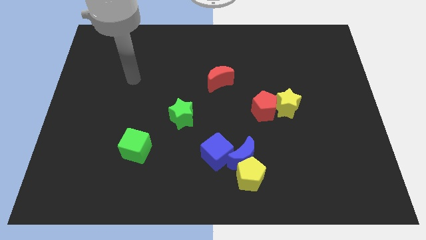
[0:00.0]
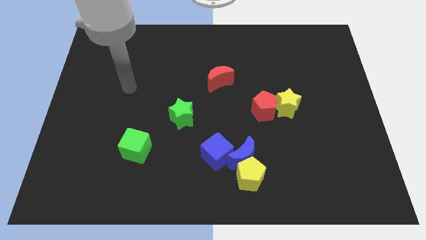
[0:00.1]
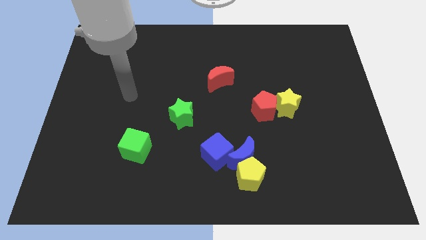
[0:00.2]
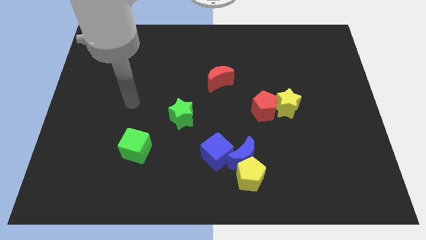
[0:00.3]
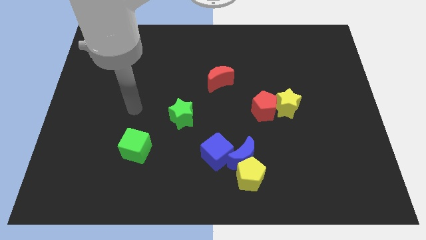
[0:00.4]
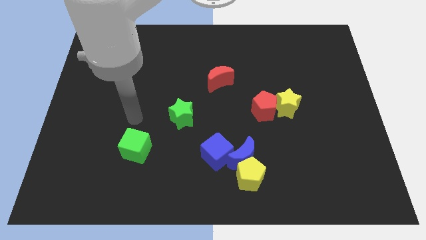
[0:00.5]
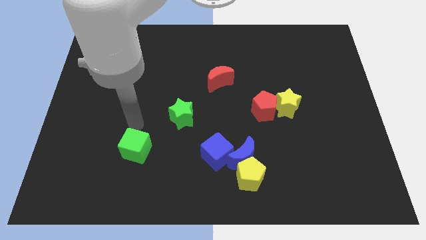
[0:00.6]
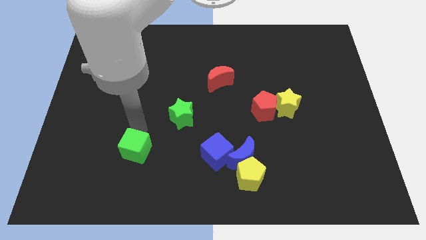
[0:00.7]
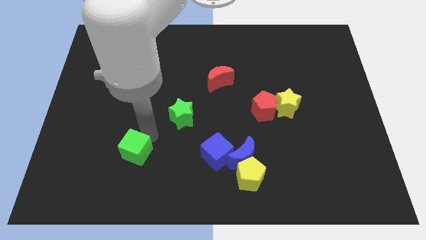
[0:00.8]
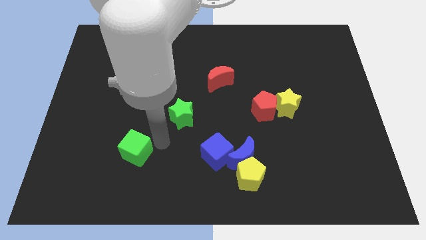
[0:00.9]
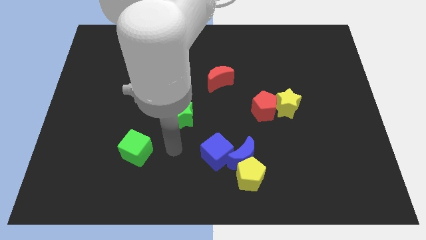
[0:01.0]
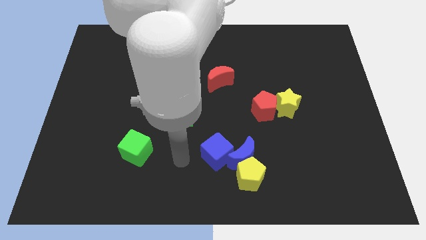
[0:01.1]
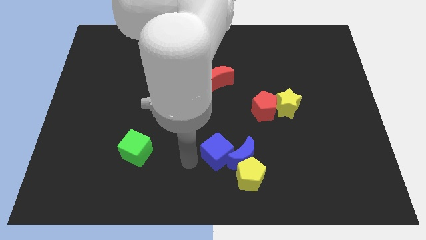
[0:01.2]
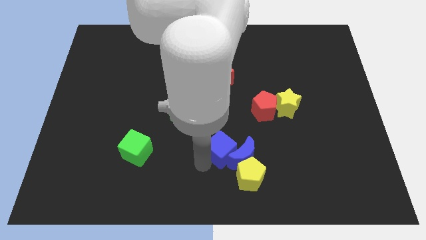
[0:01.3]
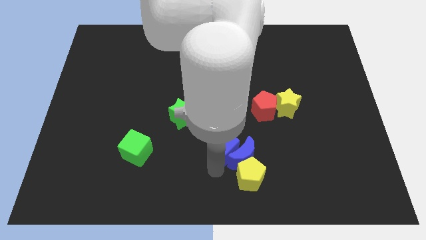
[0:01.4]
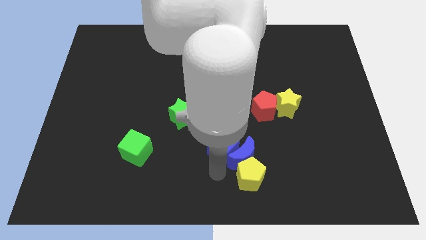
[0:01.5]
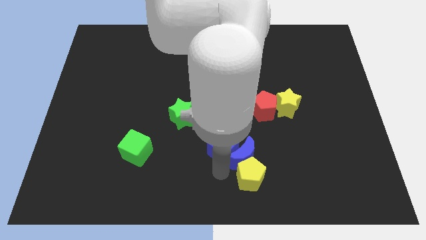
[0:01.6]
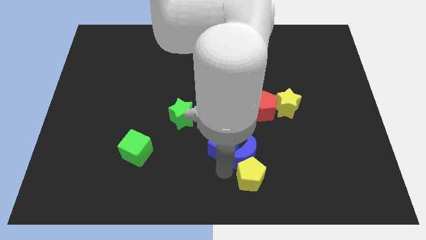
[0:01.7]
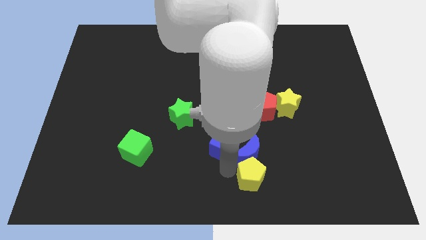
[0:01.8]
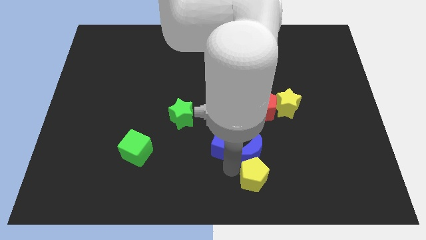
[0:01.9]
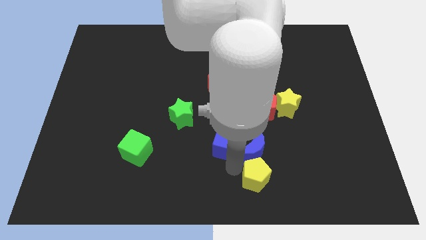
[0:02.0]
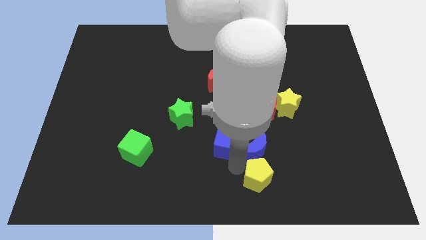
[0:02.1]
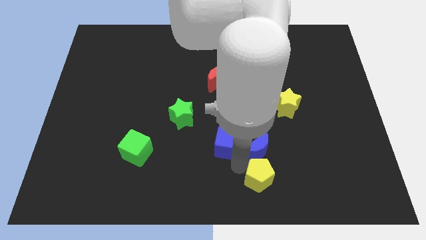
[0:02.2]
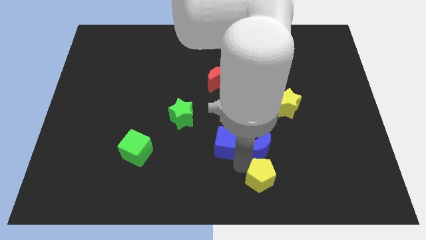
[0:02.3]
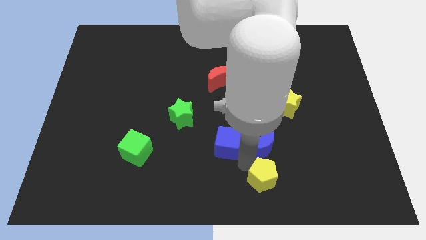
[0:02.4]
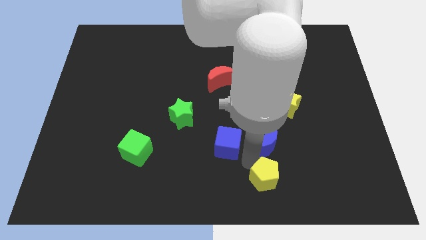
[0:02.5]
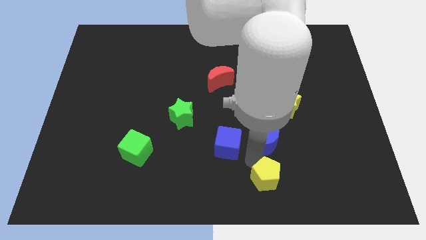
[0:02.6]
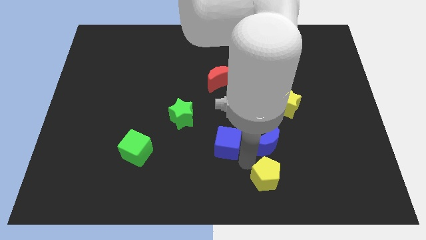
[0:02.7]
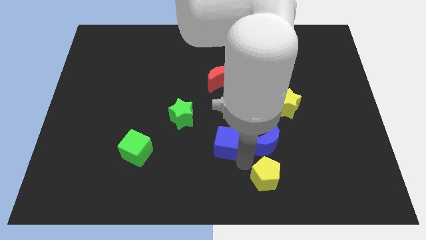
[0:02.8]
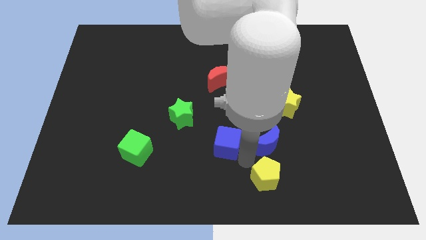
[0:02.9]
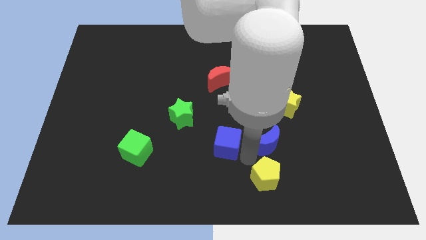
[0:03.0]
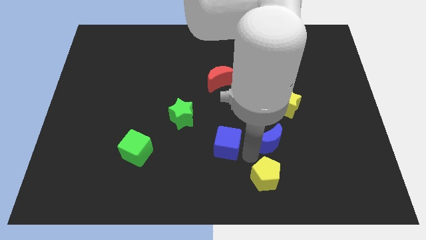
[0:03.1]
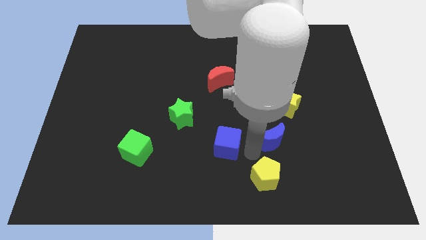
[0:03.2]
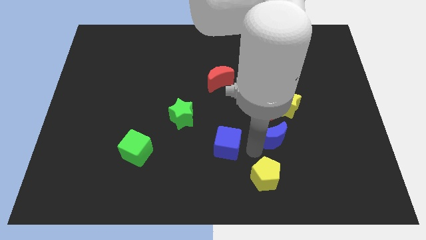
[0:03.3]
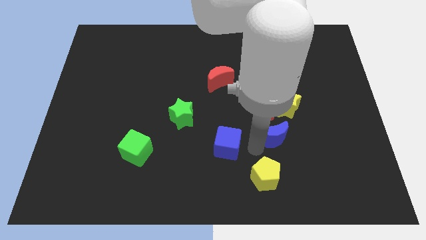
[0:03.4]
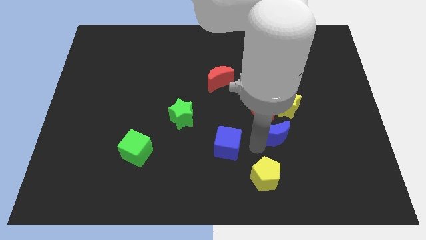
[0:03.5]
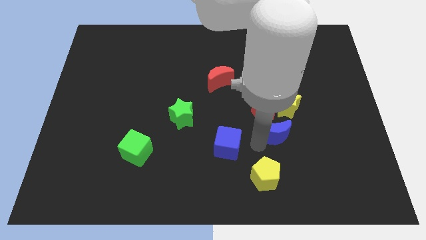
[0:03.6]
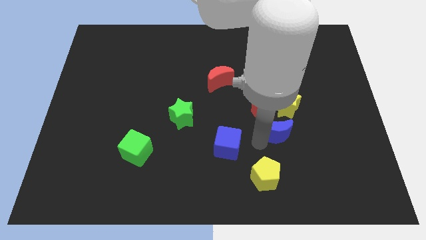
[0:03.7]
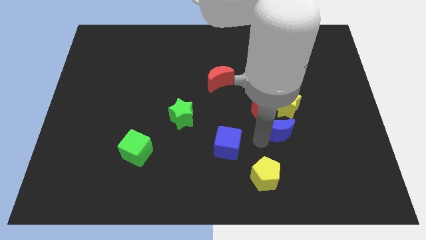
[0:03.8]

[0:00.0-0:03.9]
pull the blue moon apart from the yellow pentagon and blue cube

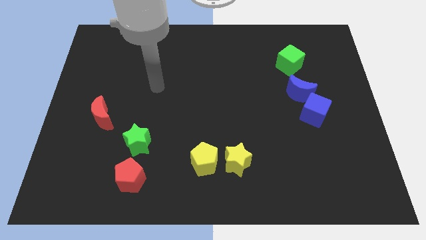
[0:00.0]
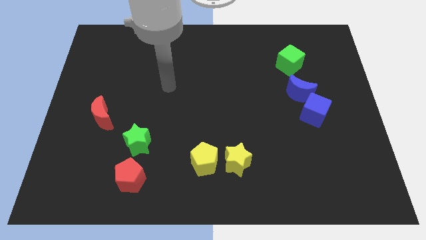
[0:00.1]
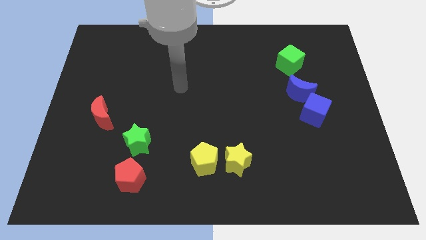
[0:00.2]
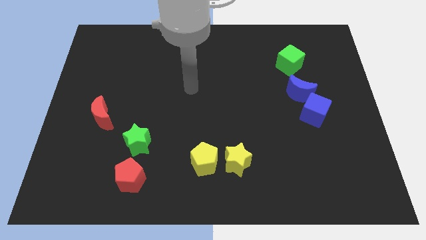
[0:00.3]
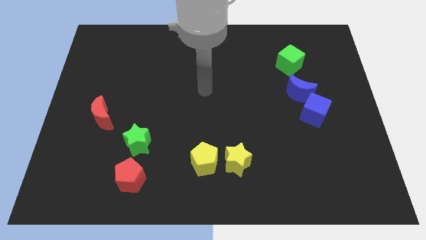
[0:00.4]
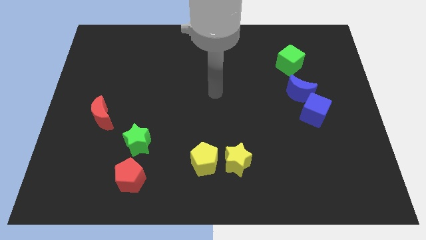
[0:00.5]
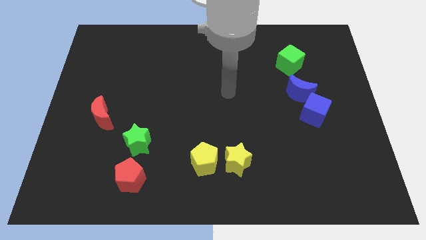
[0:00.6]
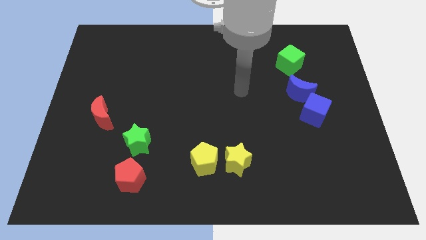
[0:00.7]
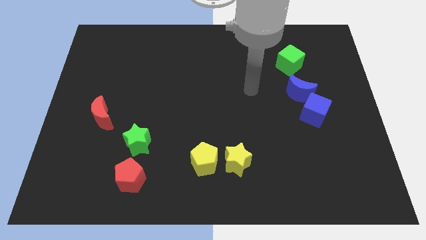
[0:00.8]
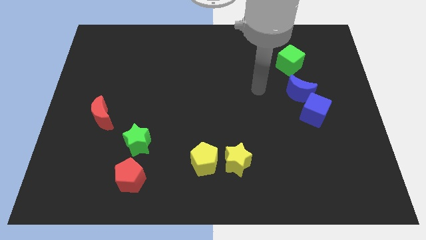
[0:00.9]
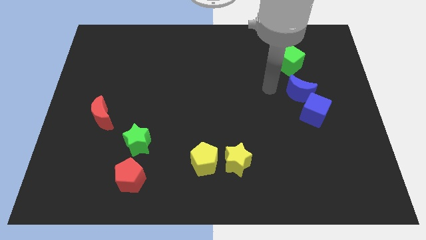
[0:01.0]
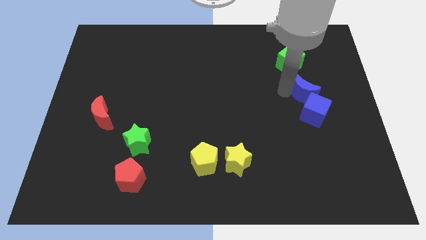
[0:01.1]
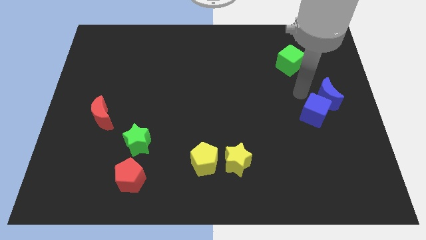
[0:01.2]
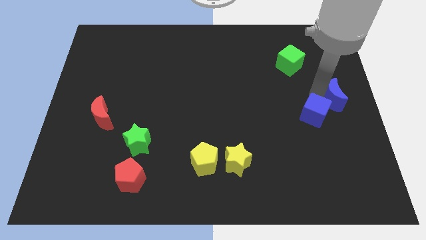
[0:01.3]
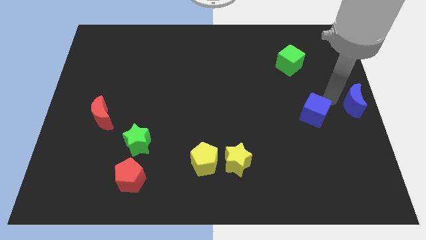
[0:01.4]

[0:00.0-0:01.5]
move the blue cube away from the blue moon

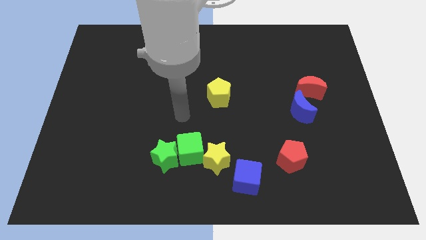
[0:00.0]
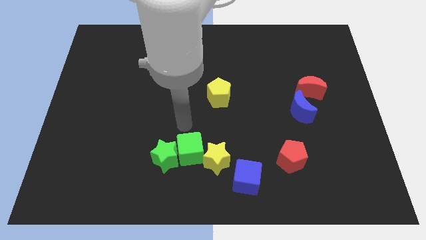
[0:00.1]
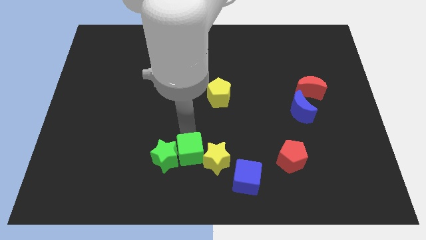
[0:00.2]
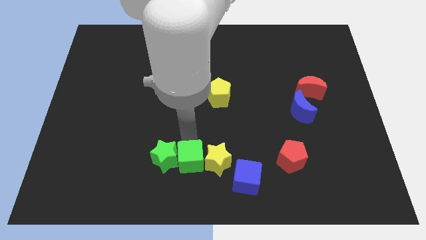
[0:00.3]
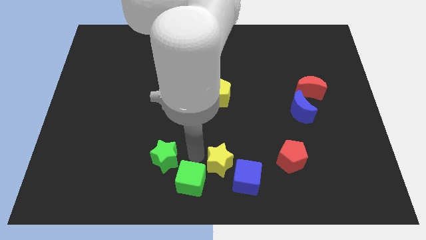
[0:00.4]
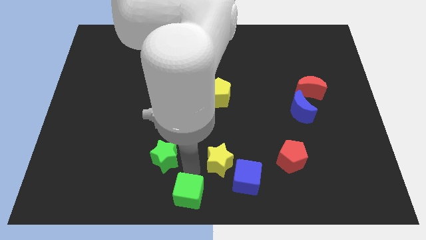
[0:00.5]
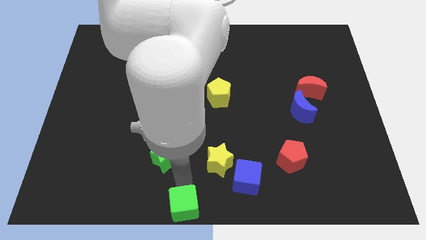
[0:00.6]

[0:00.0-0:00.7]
pull the green star apart from the green cube

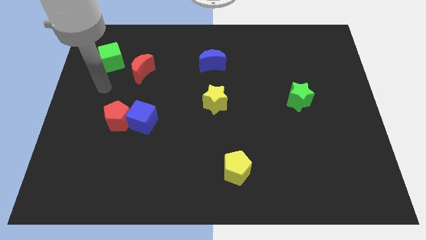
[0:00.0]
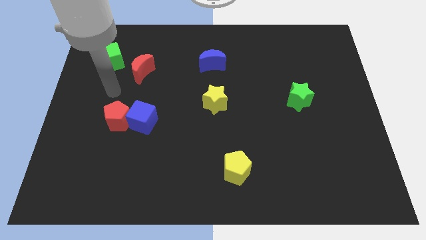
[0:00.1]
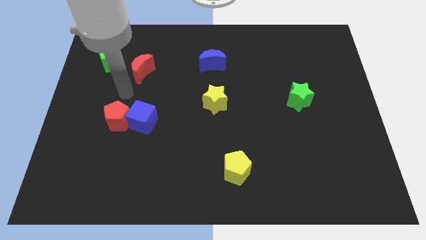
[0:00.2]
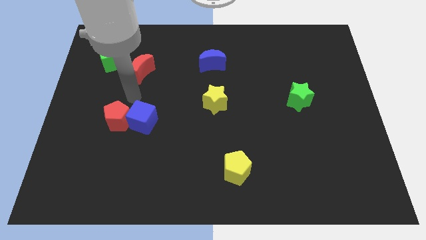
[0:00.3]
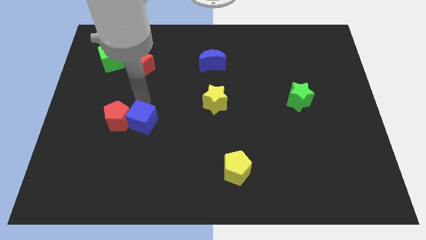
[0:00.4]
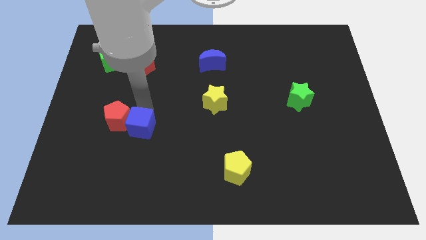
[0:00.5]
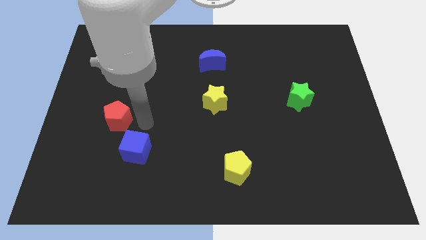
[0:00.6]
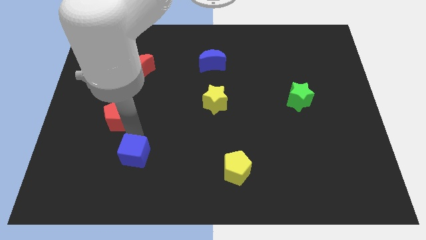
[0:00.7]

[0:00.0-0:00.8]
separate the red pentagon from the blue cube

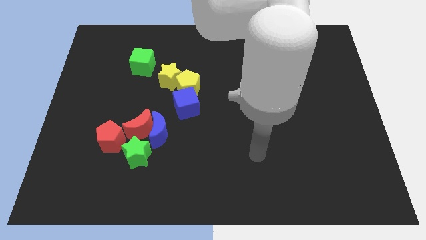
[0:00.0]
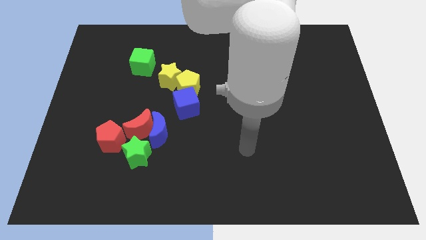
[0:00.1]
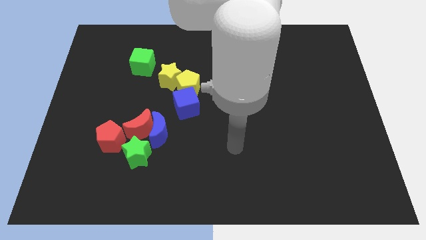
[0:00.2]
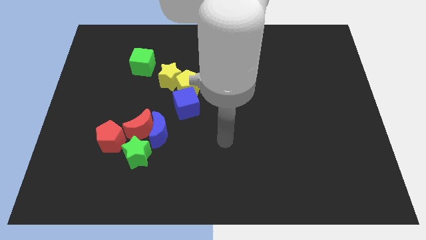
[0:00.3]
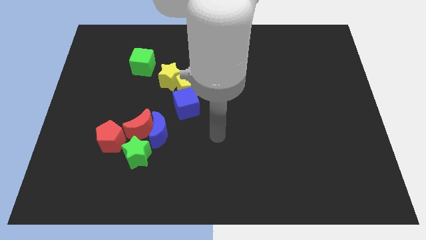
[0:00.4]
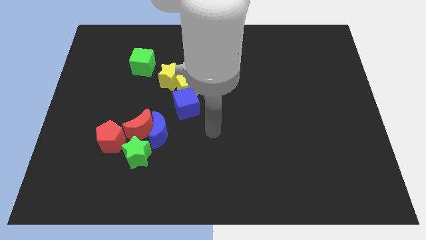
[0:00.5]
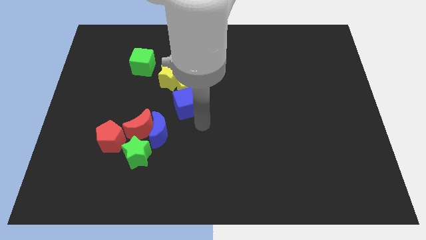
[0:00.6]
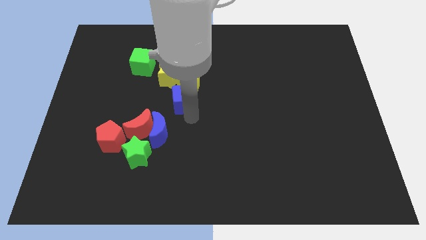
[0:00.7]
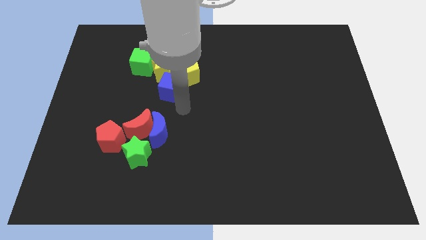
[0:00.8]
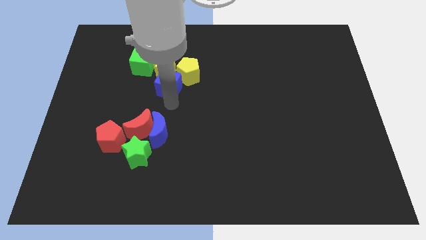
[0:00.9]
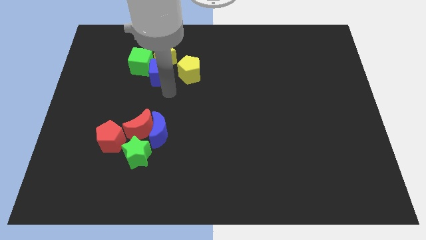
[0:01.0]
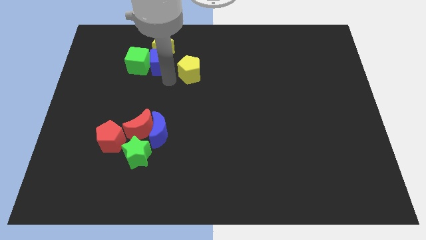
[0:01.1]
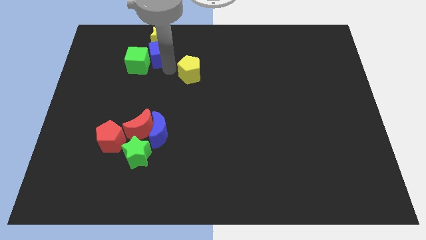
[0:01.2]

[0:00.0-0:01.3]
move the yellow pentagon away from the yellow star and blue cube

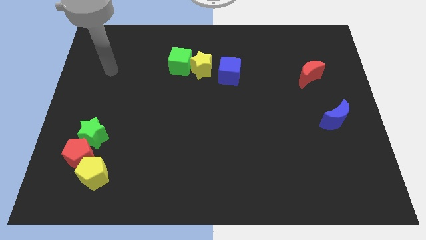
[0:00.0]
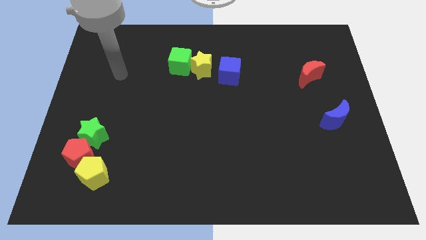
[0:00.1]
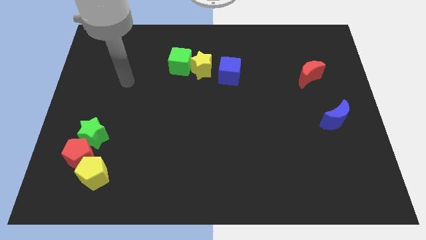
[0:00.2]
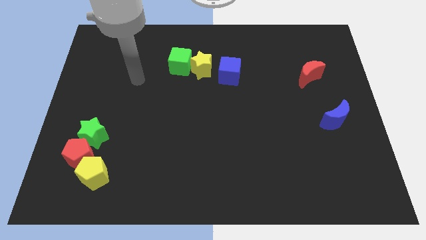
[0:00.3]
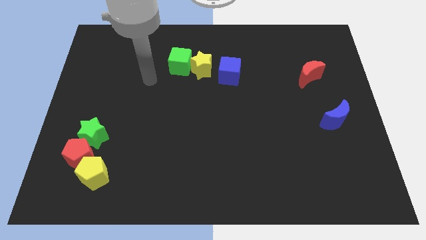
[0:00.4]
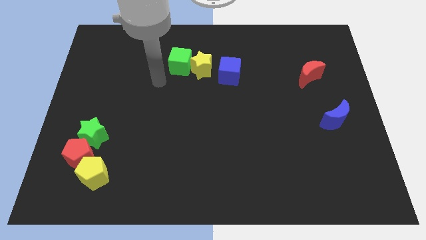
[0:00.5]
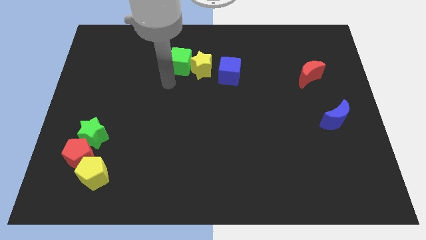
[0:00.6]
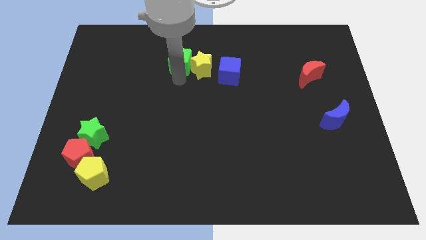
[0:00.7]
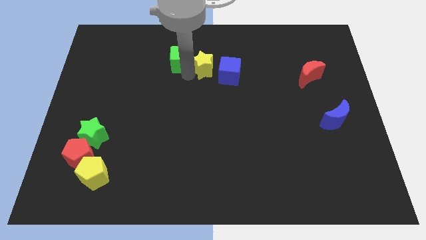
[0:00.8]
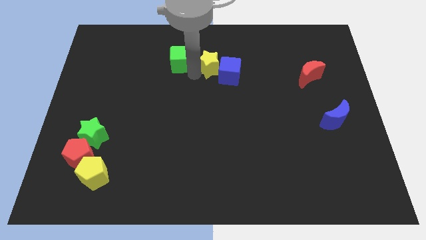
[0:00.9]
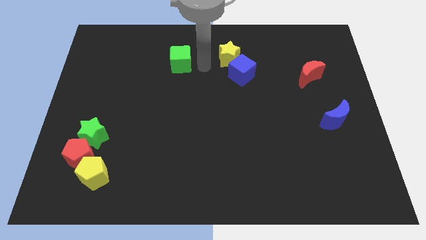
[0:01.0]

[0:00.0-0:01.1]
move the green cube away from the yellow star

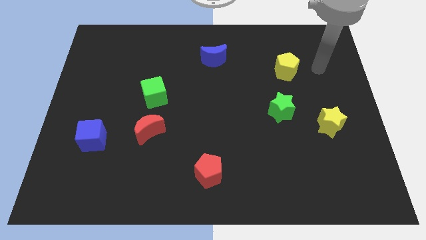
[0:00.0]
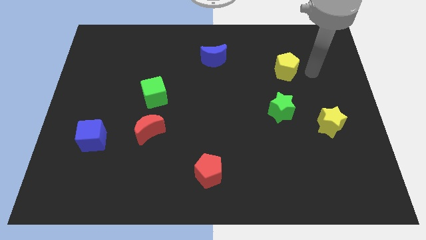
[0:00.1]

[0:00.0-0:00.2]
pull the red moon apart from the green cube

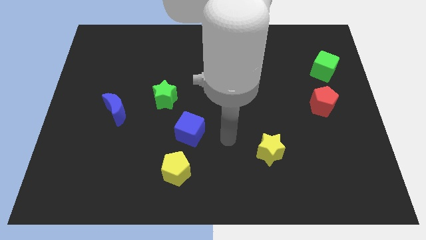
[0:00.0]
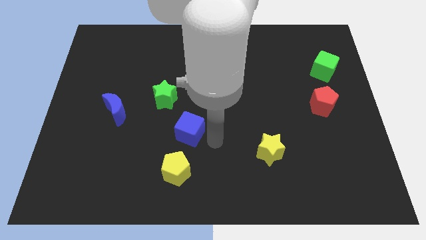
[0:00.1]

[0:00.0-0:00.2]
separate the blue cube from the yellow pentagon
